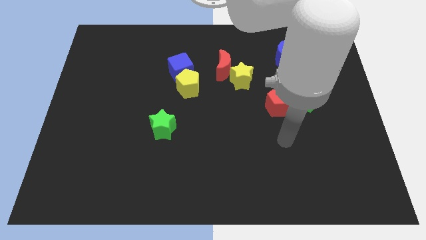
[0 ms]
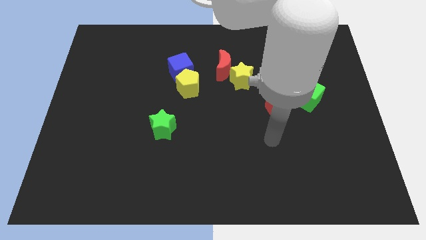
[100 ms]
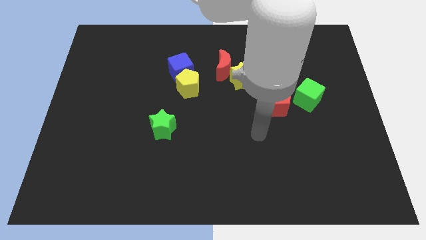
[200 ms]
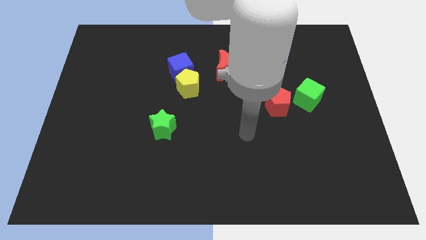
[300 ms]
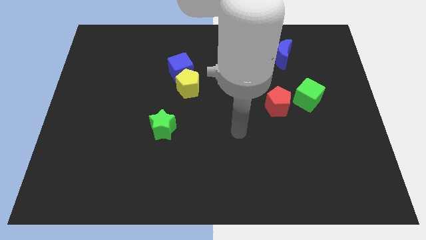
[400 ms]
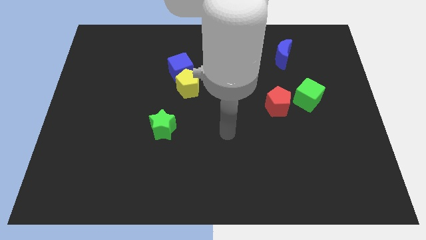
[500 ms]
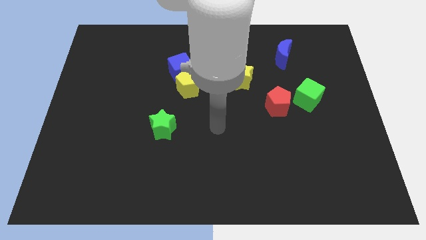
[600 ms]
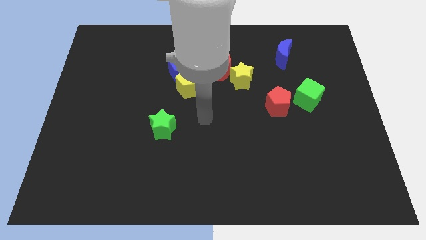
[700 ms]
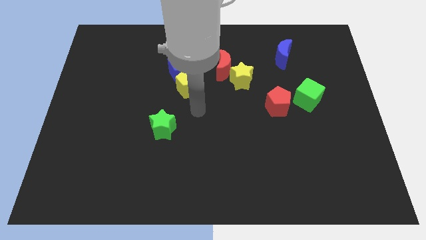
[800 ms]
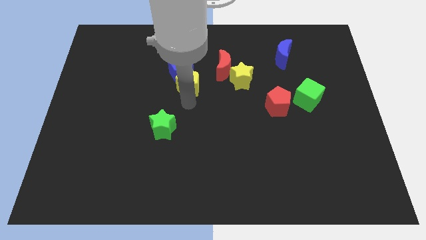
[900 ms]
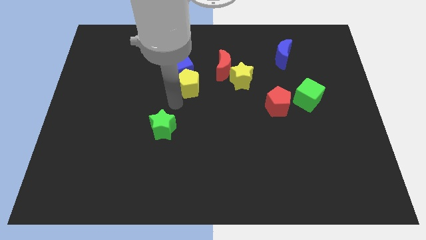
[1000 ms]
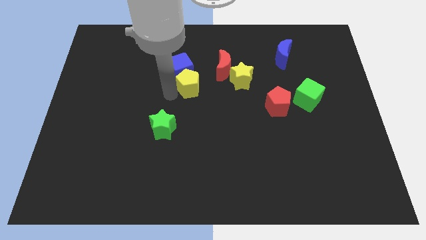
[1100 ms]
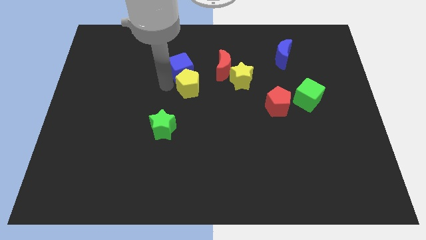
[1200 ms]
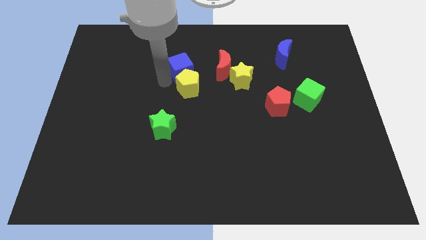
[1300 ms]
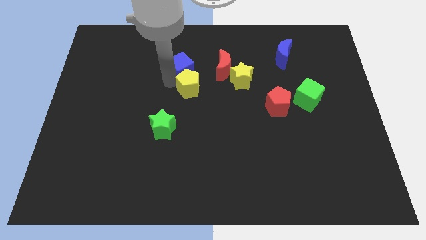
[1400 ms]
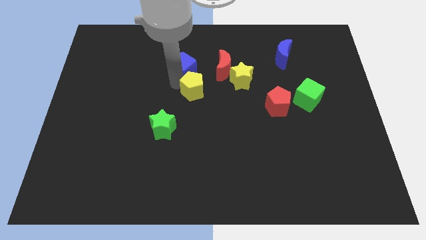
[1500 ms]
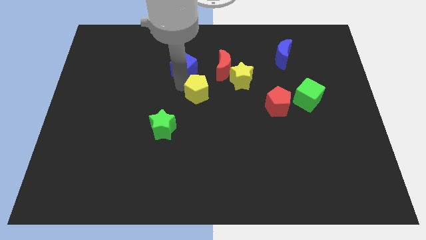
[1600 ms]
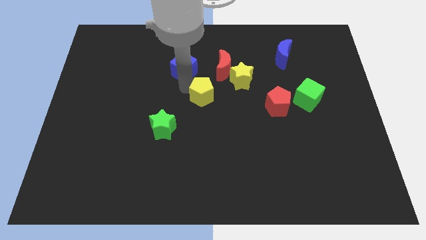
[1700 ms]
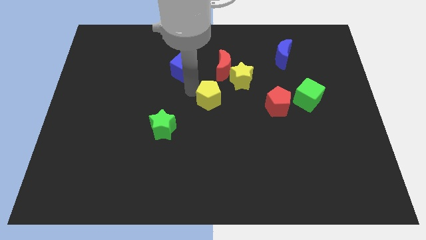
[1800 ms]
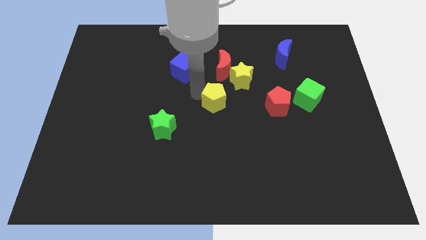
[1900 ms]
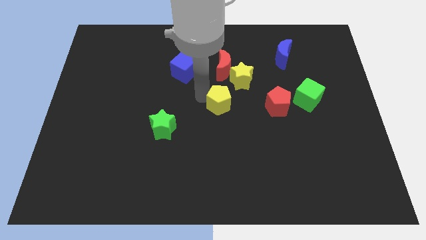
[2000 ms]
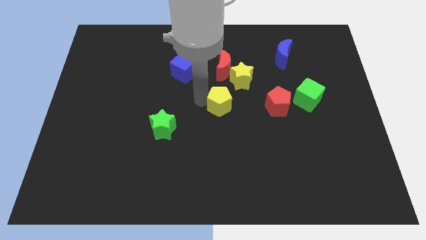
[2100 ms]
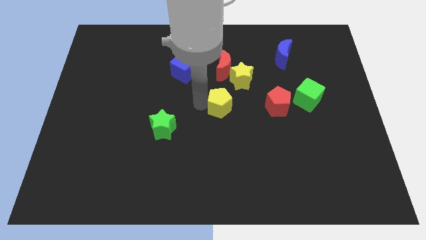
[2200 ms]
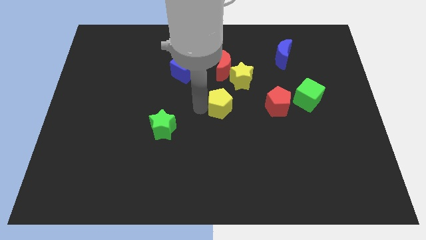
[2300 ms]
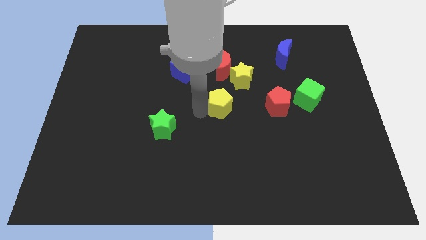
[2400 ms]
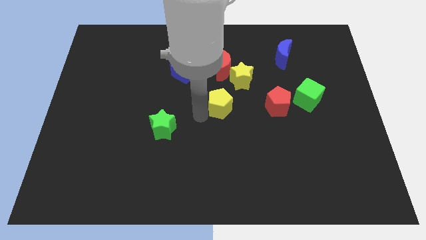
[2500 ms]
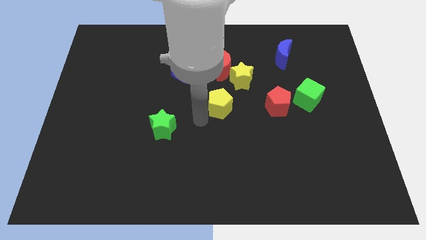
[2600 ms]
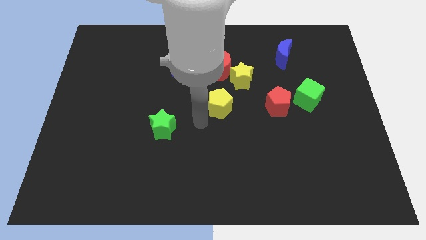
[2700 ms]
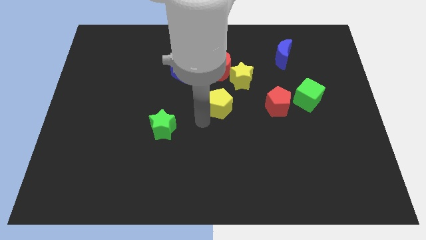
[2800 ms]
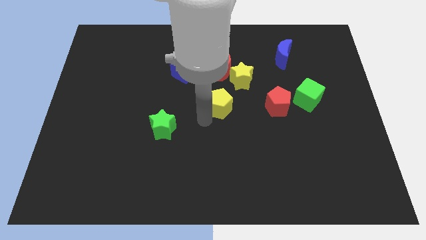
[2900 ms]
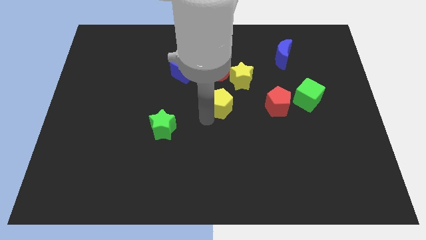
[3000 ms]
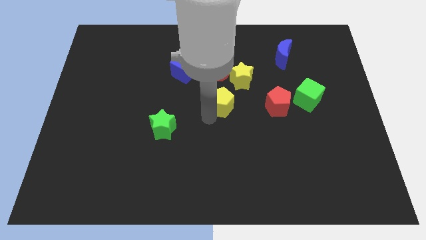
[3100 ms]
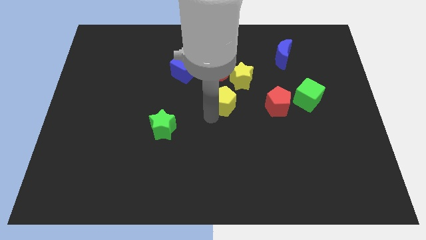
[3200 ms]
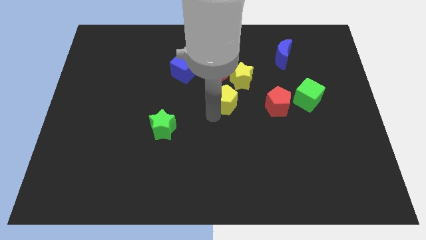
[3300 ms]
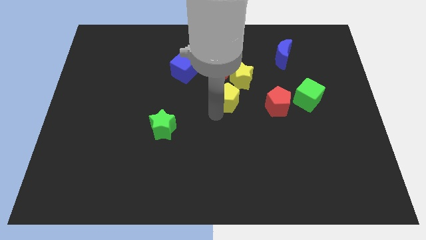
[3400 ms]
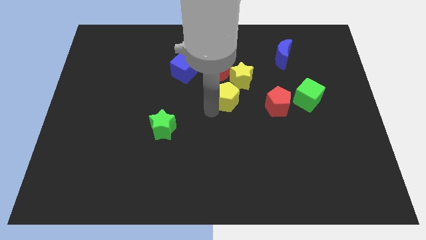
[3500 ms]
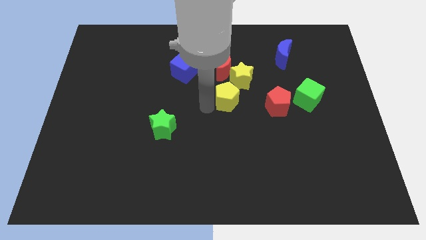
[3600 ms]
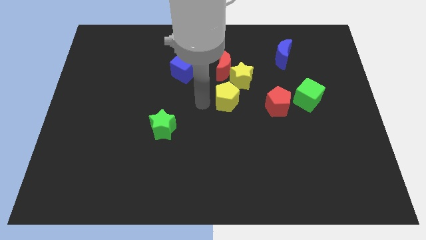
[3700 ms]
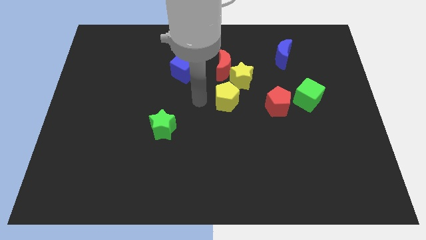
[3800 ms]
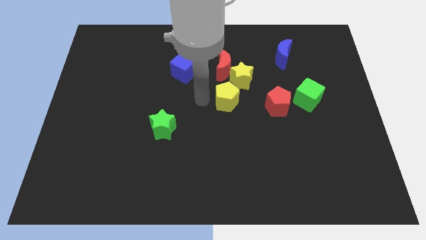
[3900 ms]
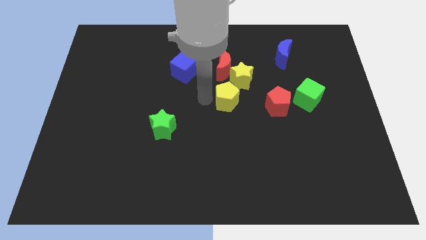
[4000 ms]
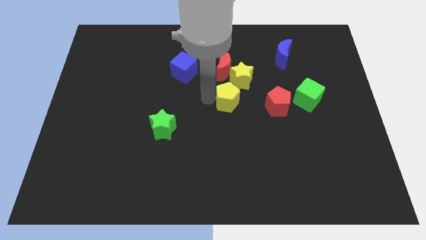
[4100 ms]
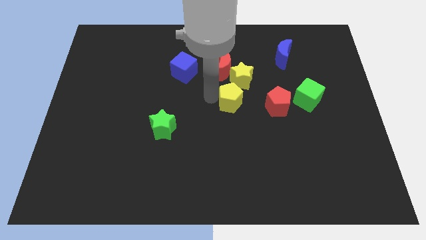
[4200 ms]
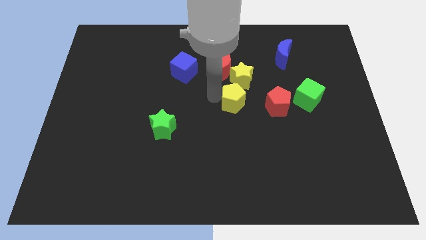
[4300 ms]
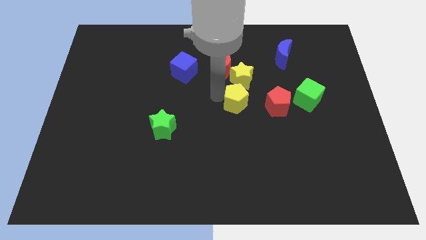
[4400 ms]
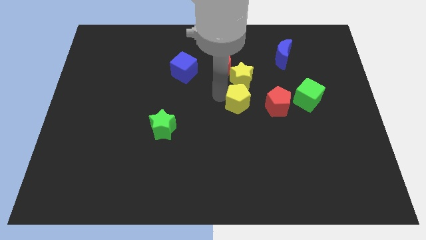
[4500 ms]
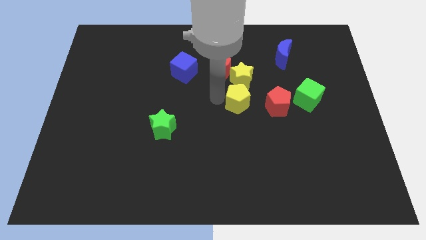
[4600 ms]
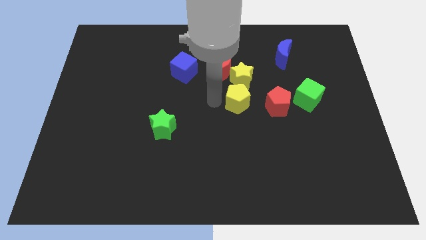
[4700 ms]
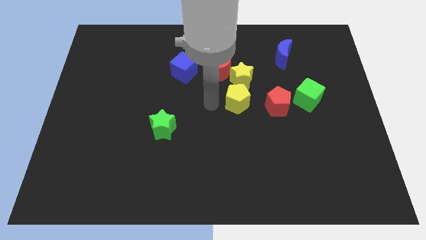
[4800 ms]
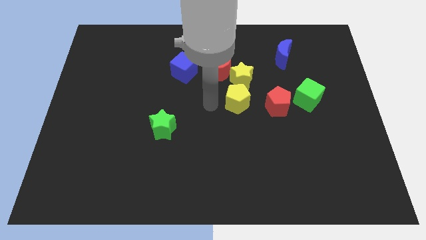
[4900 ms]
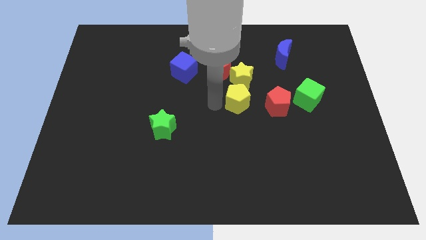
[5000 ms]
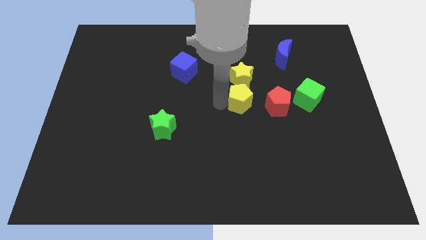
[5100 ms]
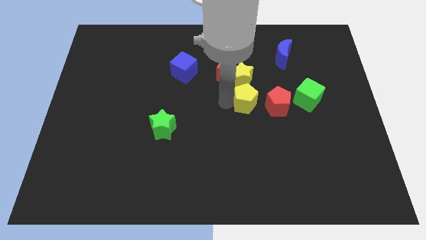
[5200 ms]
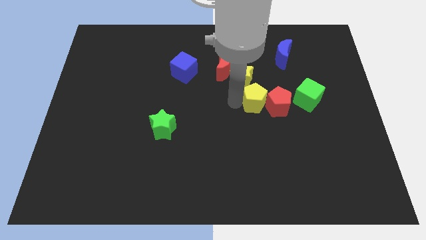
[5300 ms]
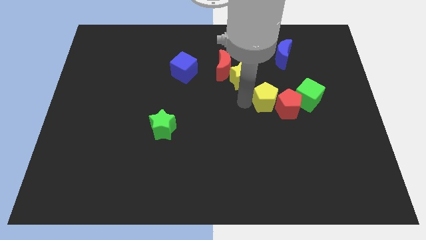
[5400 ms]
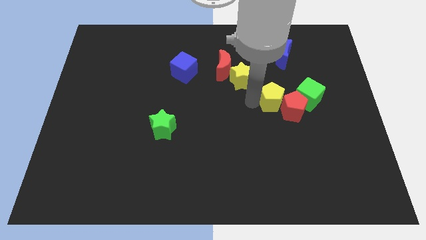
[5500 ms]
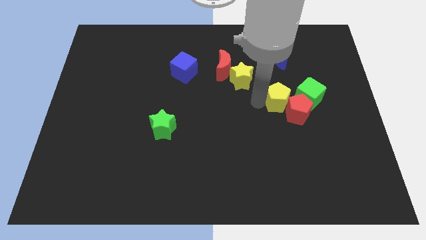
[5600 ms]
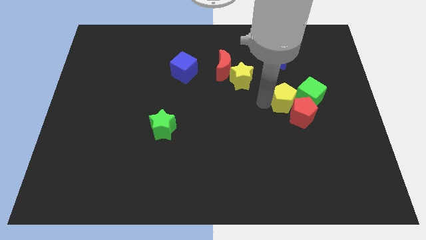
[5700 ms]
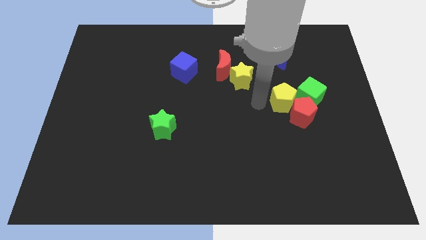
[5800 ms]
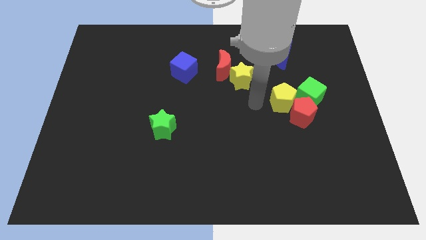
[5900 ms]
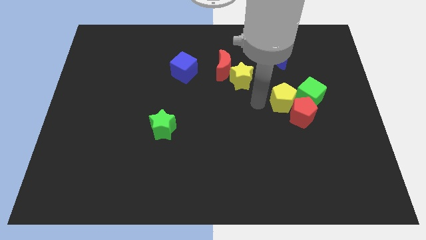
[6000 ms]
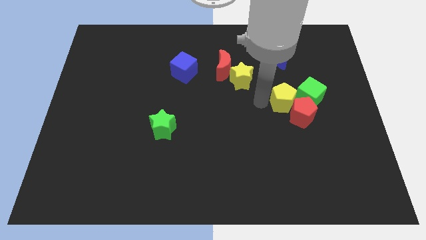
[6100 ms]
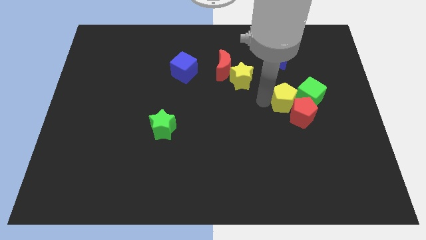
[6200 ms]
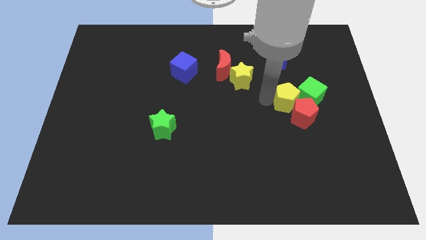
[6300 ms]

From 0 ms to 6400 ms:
slide the yellow pentagon towards the green cube

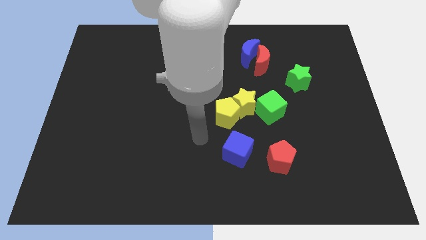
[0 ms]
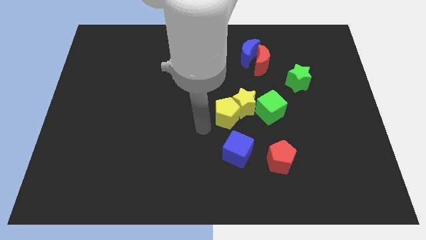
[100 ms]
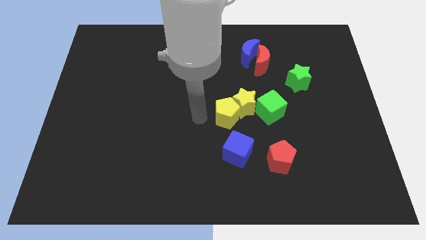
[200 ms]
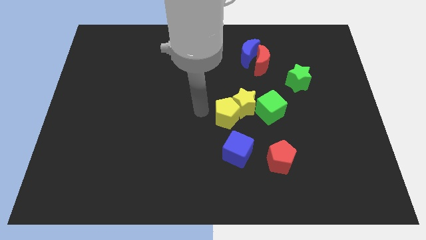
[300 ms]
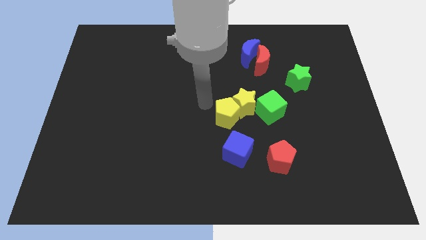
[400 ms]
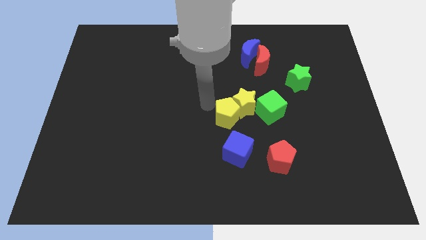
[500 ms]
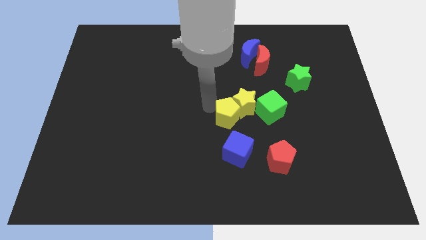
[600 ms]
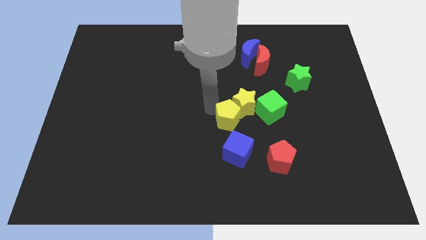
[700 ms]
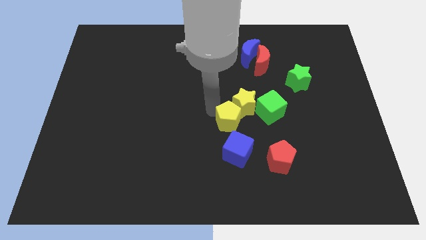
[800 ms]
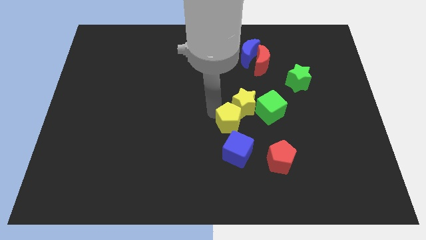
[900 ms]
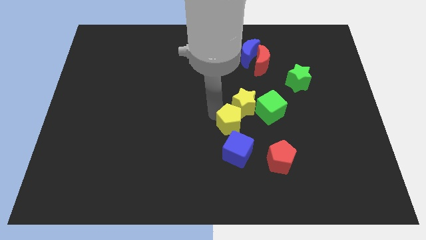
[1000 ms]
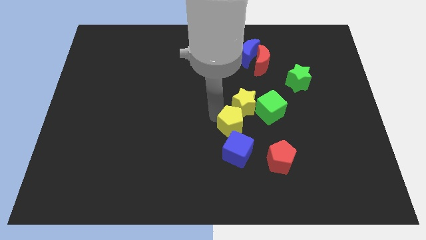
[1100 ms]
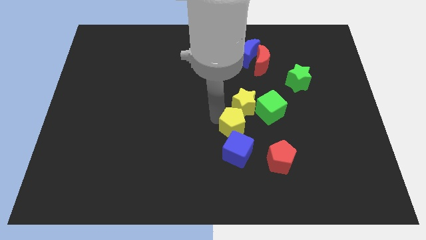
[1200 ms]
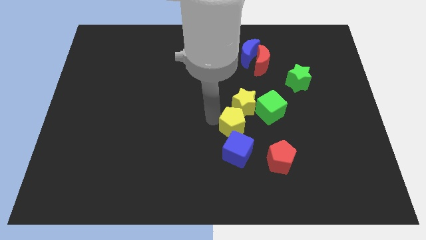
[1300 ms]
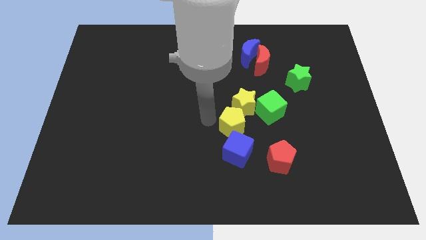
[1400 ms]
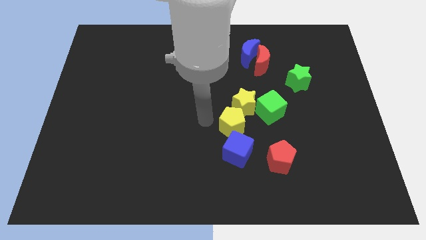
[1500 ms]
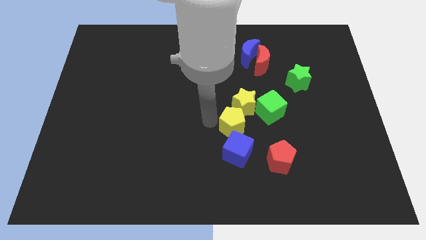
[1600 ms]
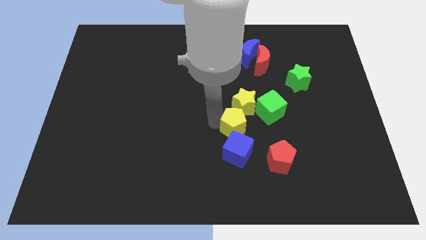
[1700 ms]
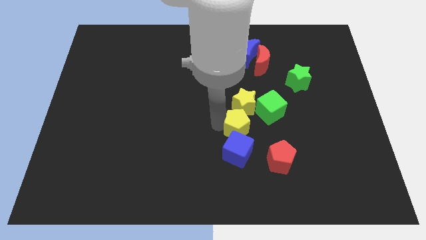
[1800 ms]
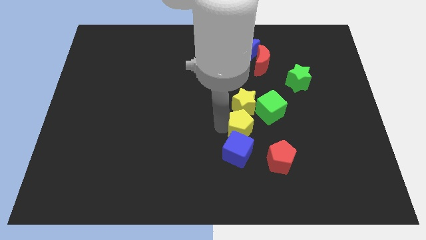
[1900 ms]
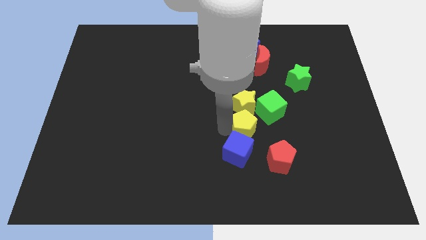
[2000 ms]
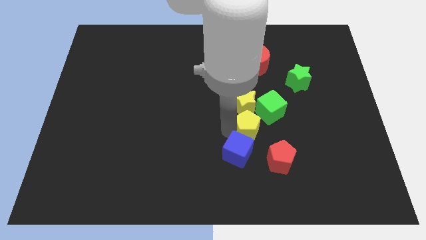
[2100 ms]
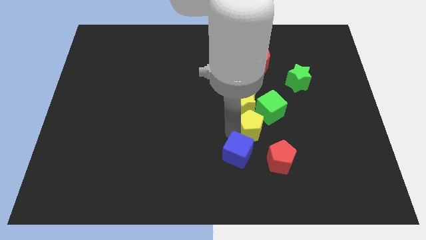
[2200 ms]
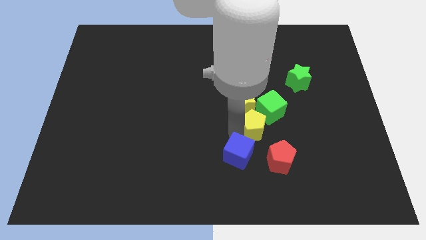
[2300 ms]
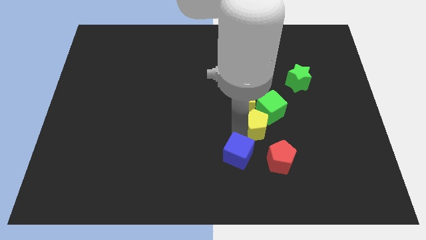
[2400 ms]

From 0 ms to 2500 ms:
move the yellow pentagon close to the green cube
